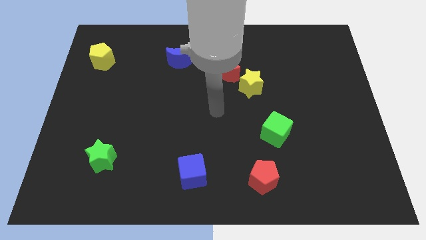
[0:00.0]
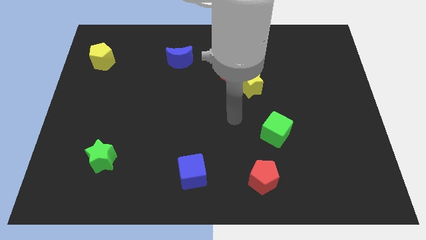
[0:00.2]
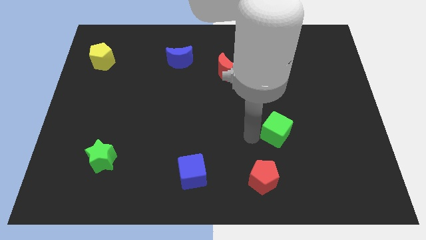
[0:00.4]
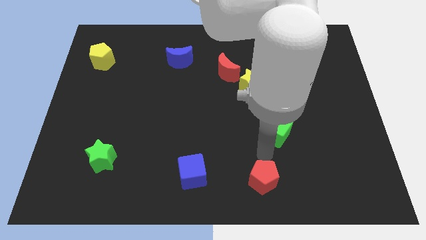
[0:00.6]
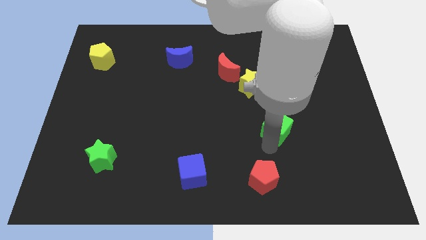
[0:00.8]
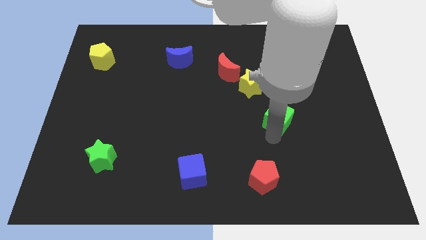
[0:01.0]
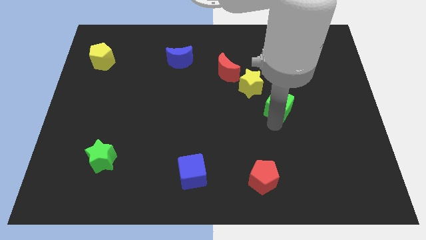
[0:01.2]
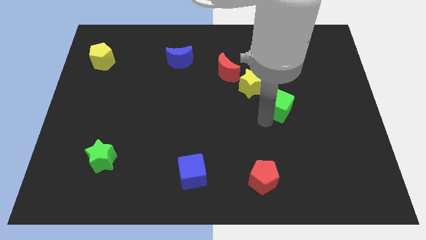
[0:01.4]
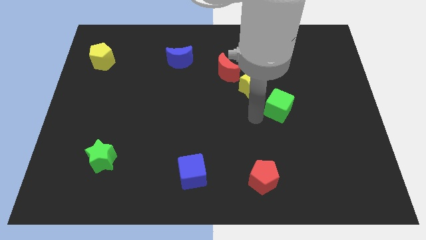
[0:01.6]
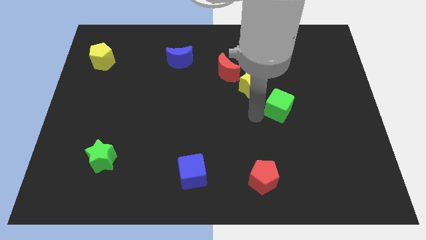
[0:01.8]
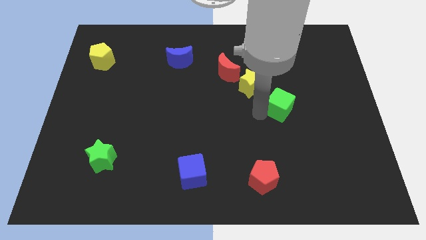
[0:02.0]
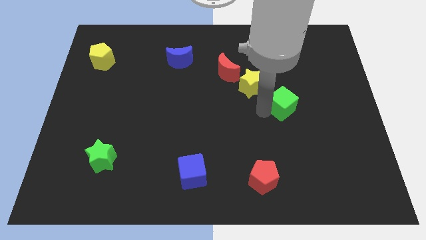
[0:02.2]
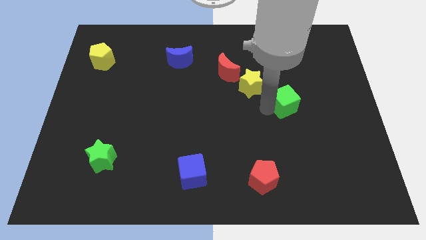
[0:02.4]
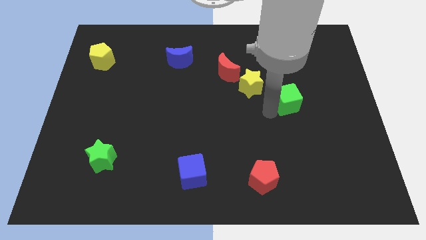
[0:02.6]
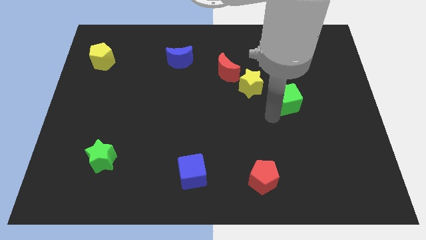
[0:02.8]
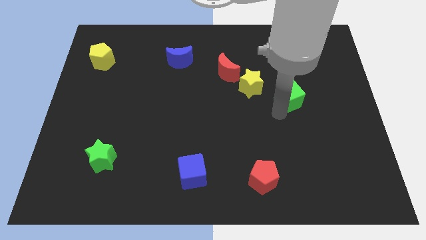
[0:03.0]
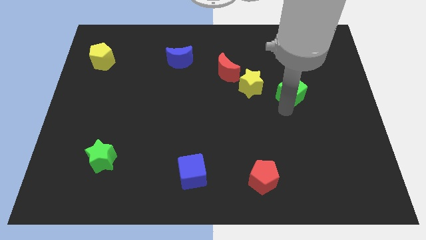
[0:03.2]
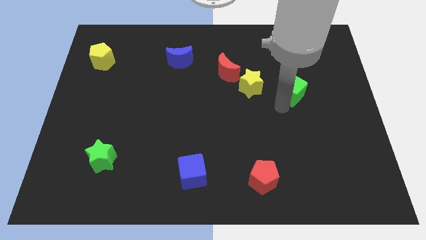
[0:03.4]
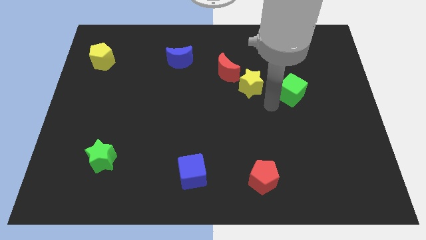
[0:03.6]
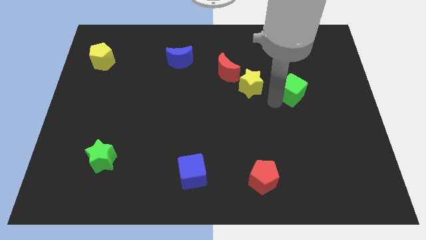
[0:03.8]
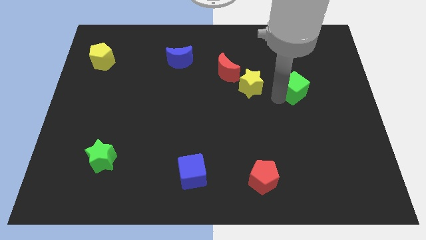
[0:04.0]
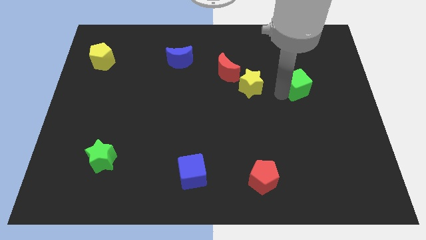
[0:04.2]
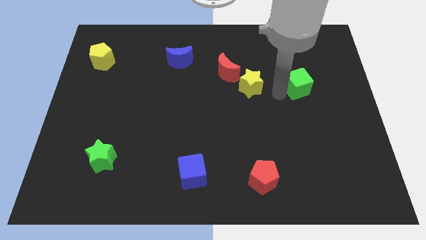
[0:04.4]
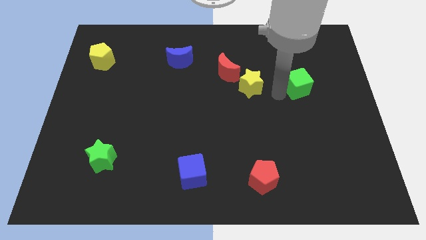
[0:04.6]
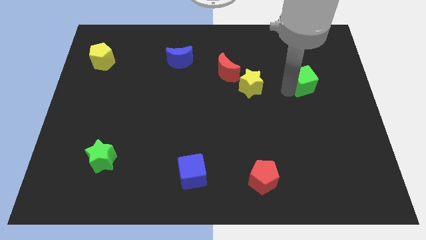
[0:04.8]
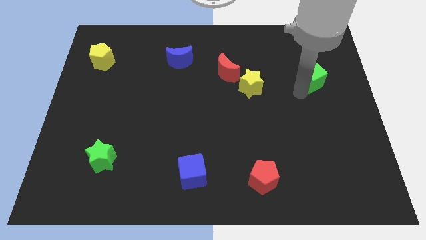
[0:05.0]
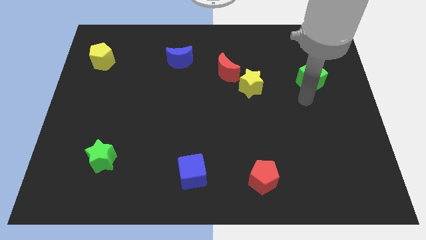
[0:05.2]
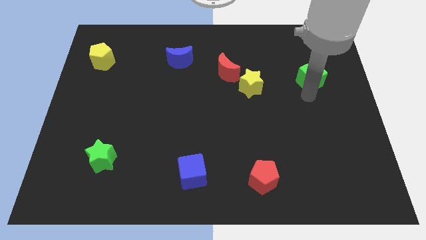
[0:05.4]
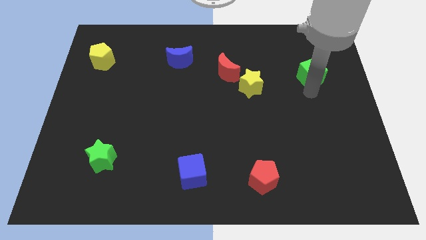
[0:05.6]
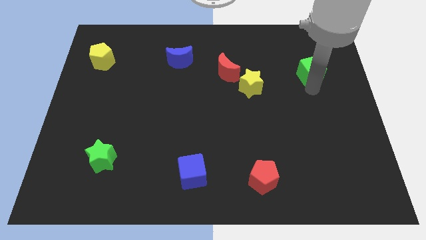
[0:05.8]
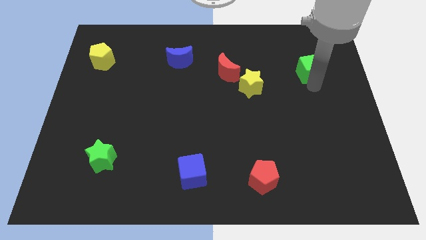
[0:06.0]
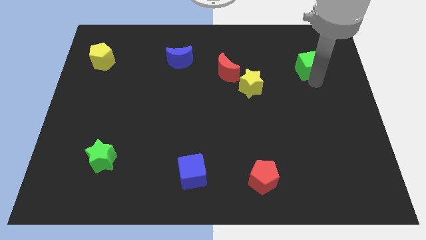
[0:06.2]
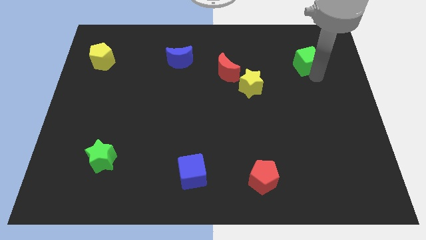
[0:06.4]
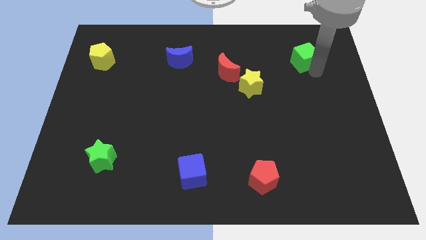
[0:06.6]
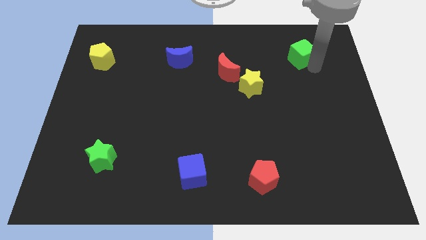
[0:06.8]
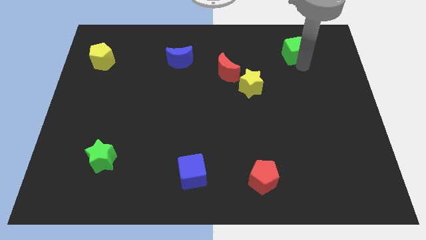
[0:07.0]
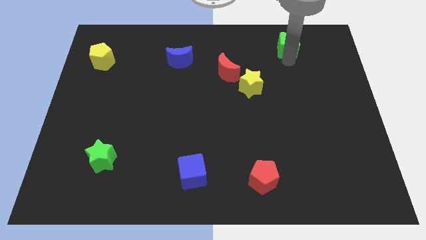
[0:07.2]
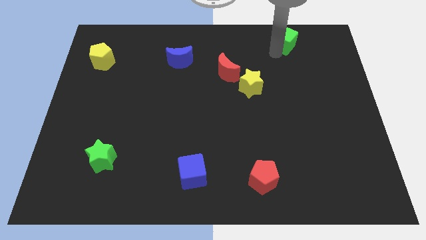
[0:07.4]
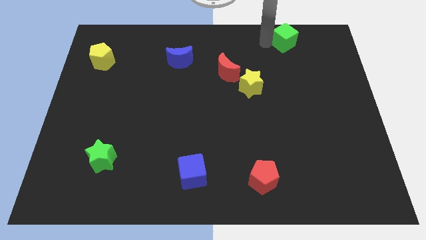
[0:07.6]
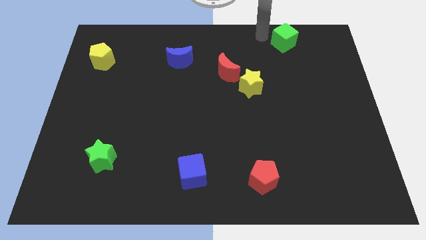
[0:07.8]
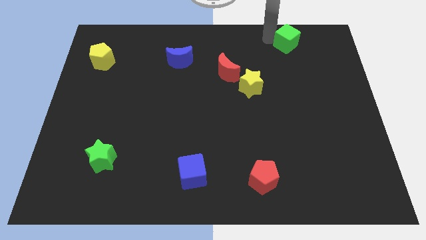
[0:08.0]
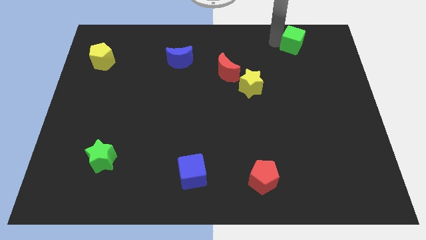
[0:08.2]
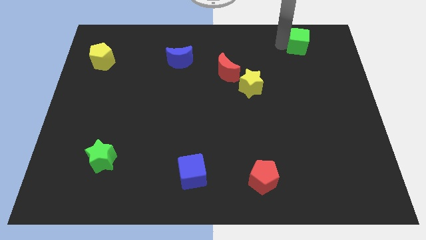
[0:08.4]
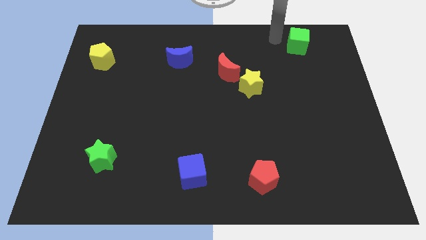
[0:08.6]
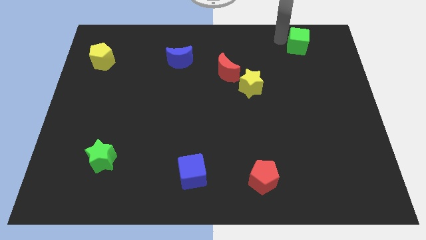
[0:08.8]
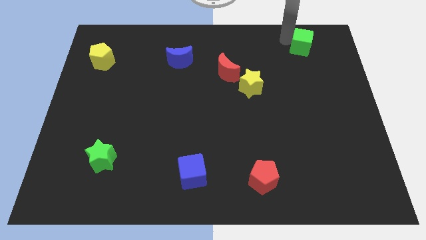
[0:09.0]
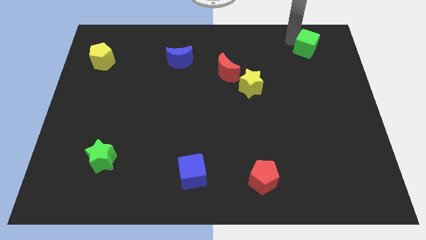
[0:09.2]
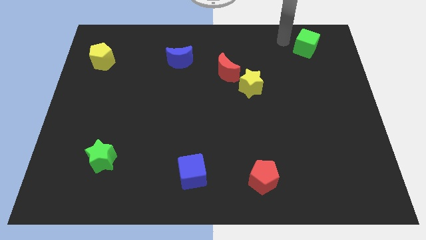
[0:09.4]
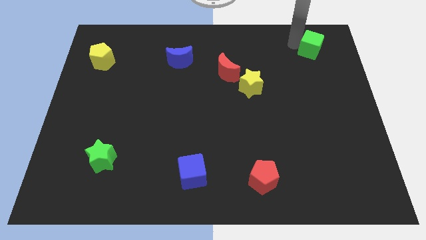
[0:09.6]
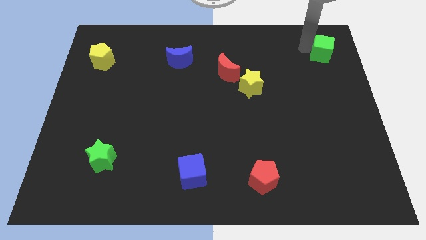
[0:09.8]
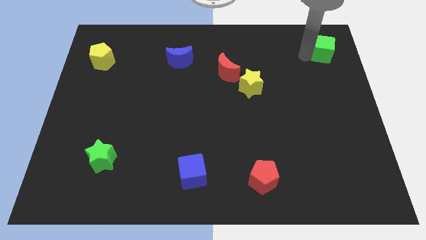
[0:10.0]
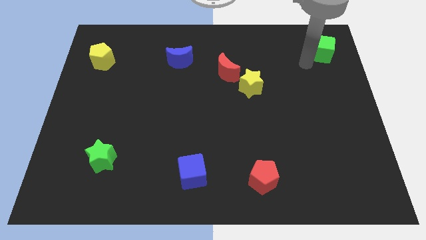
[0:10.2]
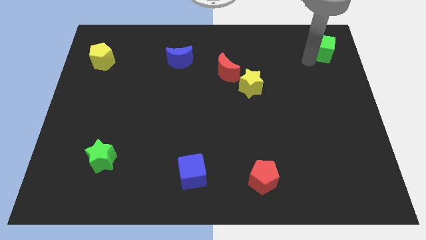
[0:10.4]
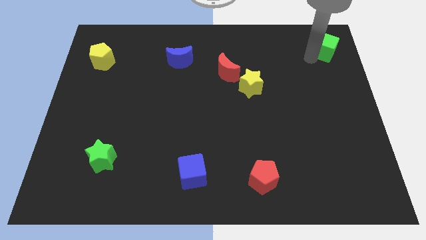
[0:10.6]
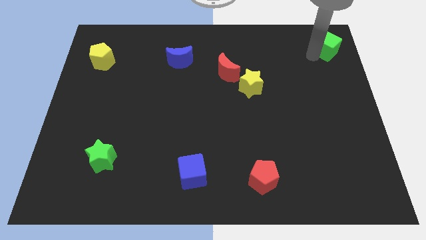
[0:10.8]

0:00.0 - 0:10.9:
push the green cube to the upper right corner

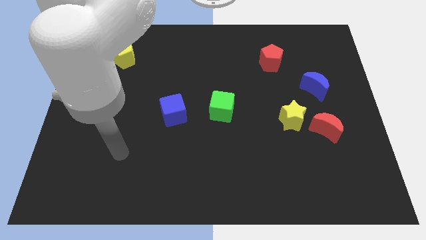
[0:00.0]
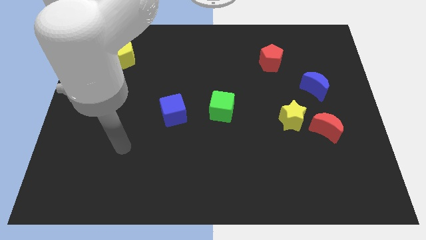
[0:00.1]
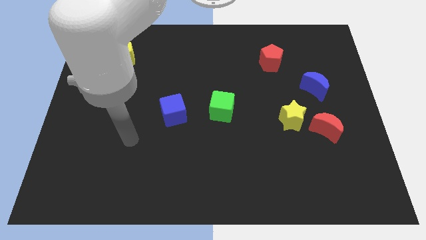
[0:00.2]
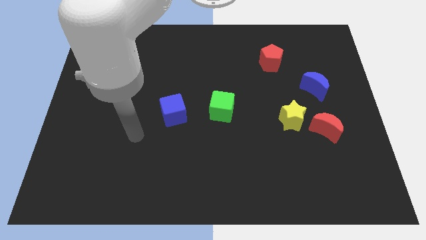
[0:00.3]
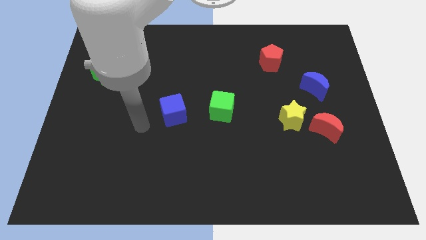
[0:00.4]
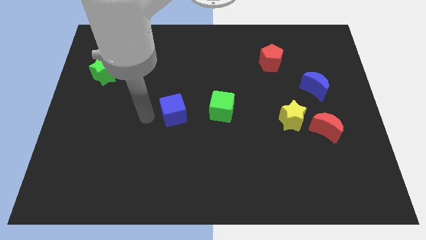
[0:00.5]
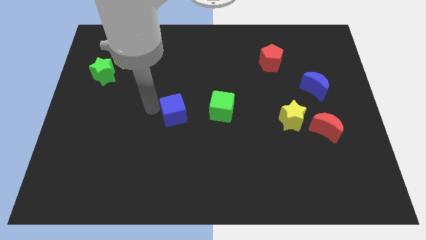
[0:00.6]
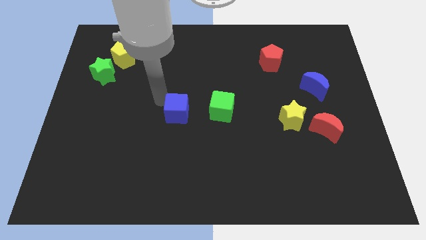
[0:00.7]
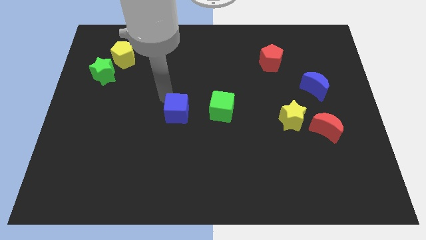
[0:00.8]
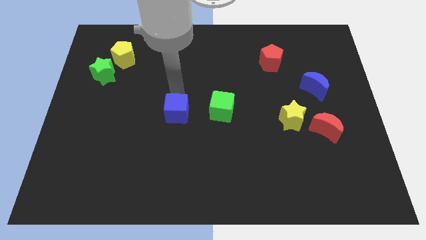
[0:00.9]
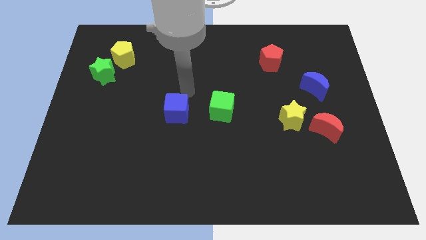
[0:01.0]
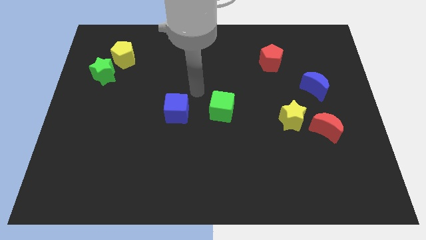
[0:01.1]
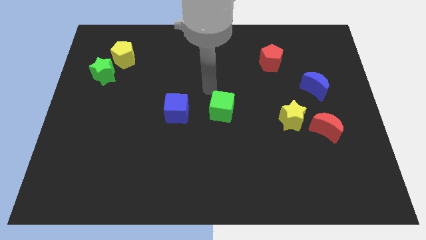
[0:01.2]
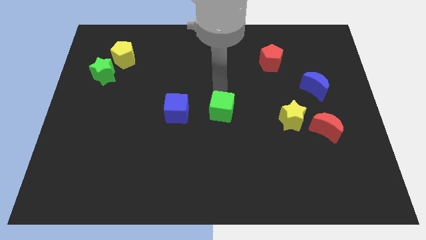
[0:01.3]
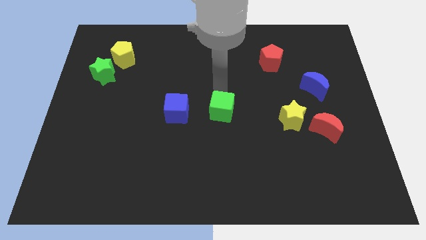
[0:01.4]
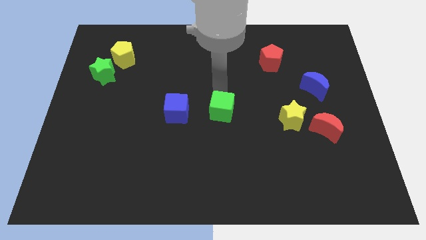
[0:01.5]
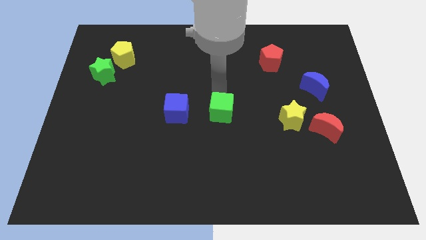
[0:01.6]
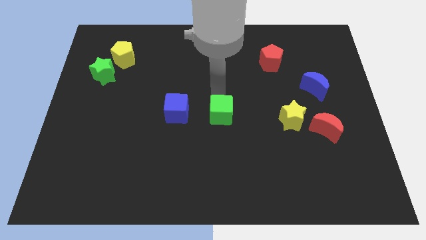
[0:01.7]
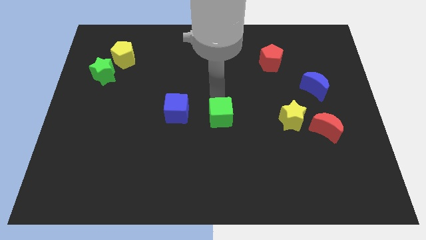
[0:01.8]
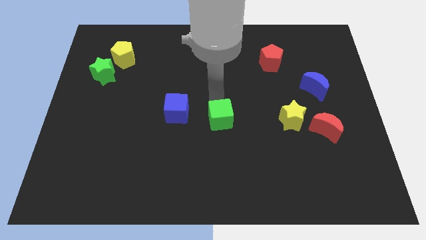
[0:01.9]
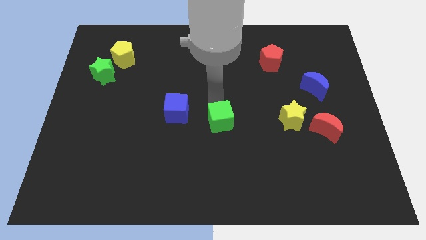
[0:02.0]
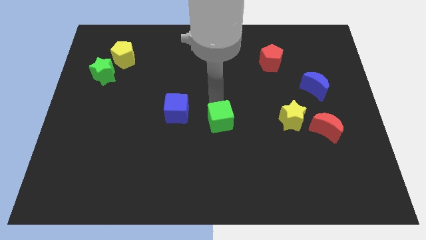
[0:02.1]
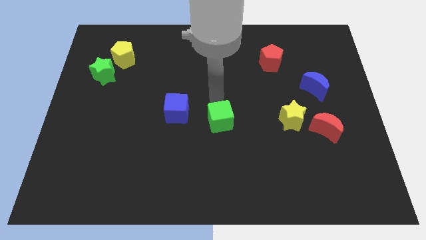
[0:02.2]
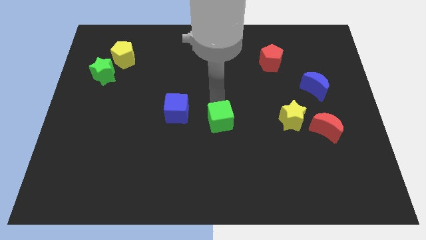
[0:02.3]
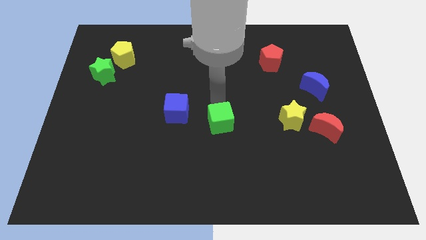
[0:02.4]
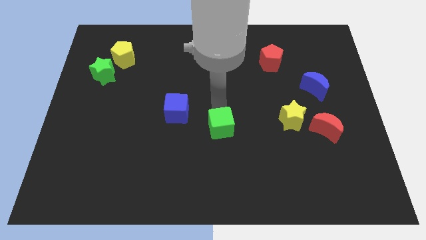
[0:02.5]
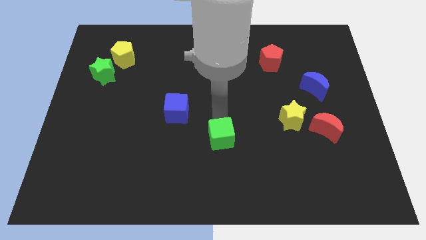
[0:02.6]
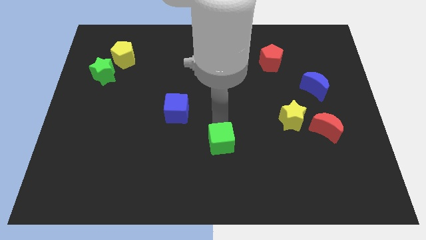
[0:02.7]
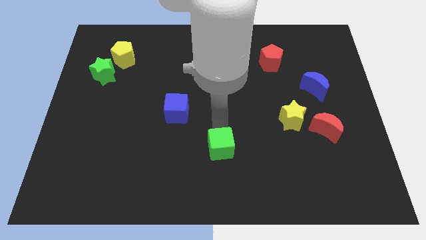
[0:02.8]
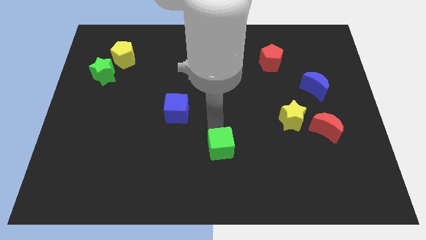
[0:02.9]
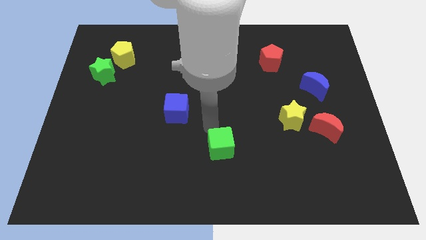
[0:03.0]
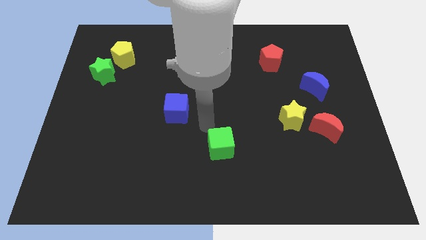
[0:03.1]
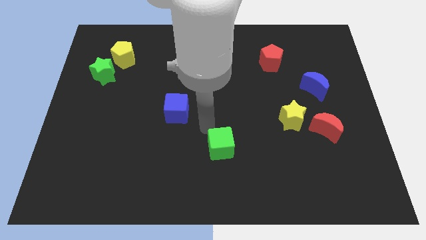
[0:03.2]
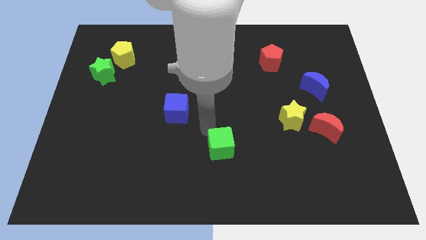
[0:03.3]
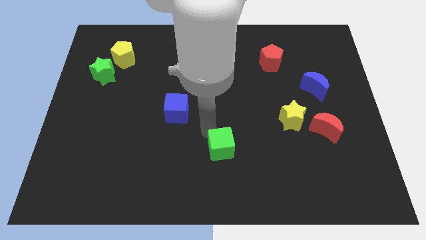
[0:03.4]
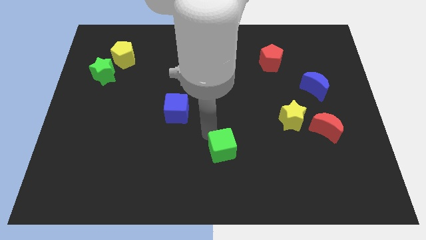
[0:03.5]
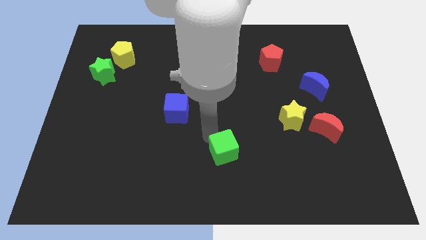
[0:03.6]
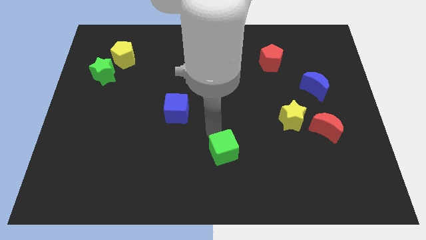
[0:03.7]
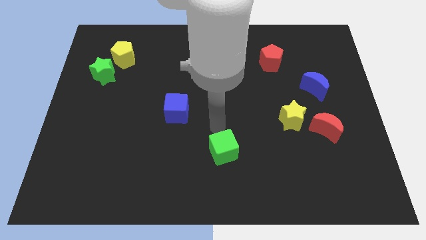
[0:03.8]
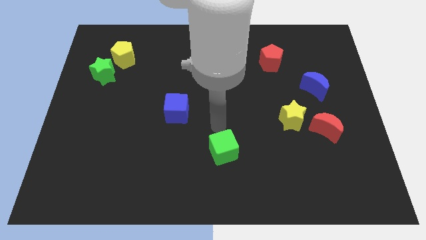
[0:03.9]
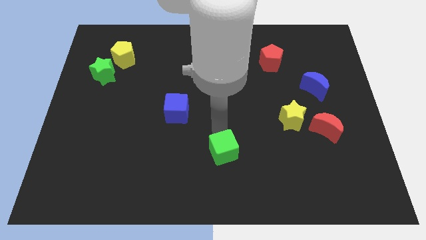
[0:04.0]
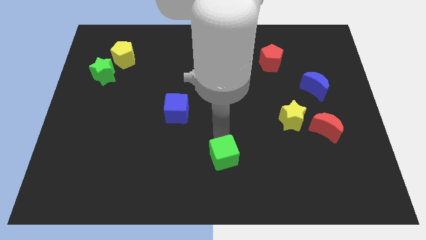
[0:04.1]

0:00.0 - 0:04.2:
push the green cube to the bottom
